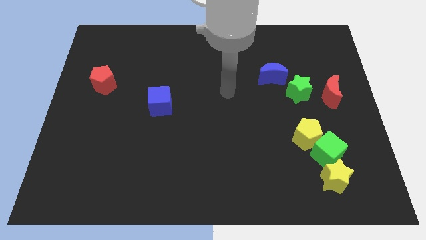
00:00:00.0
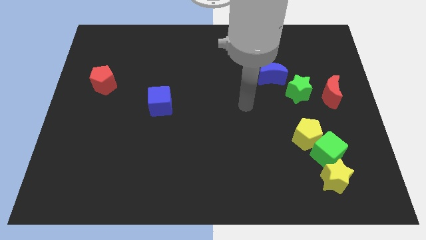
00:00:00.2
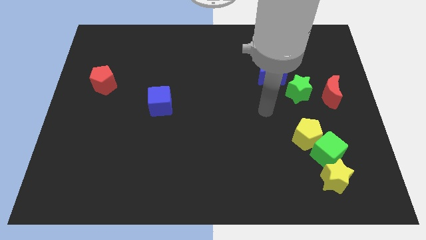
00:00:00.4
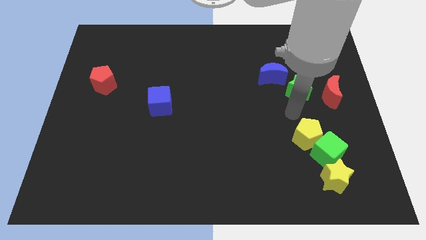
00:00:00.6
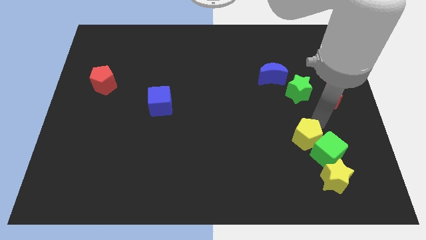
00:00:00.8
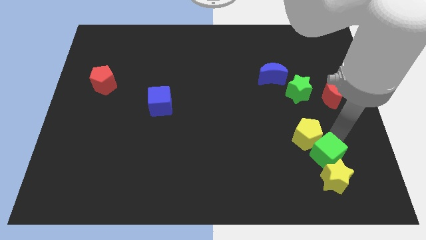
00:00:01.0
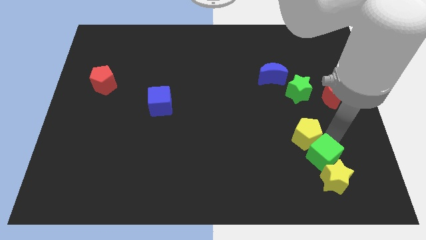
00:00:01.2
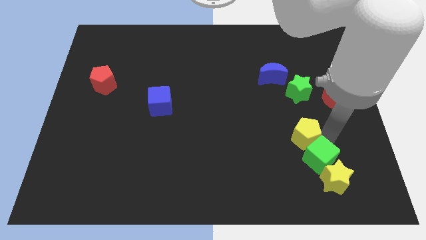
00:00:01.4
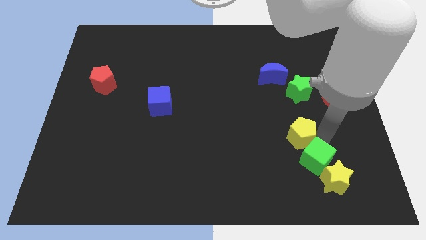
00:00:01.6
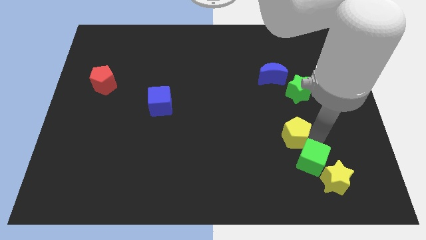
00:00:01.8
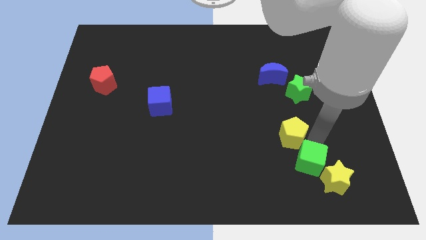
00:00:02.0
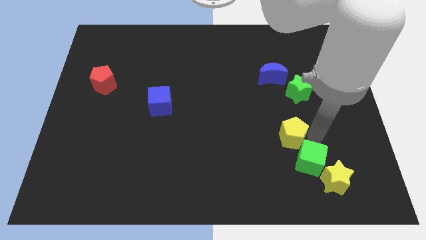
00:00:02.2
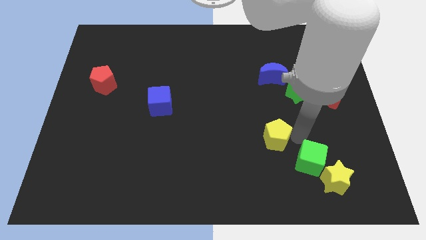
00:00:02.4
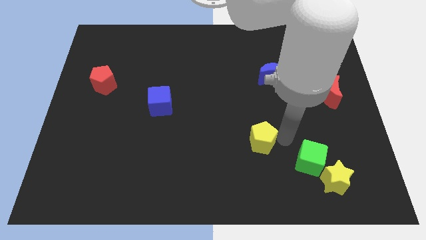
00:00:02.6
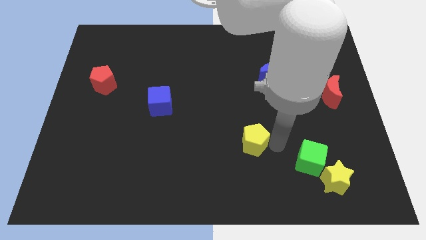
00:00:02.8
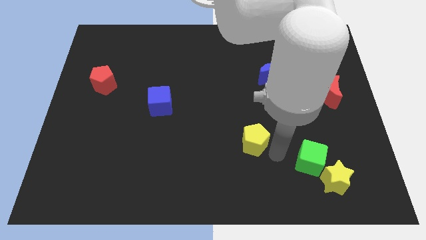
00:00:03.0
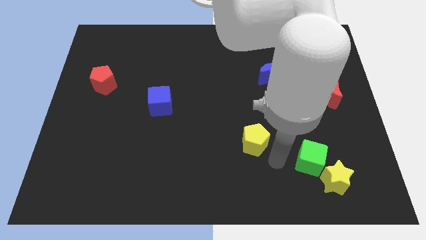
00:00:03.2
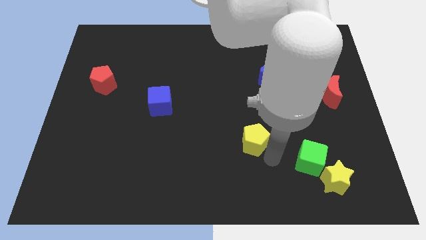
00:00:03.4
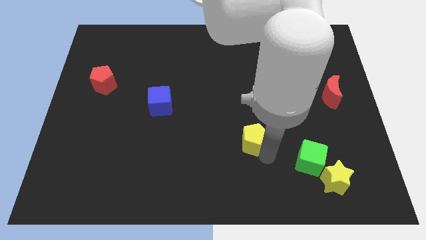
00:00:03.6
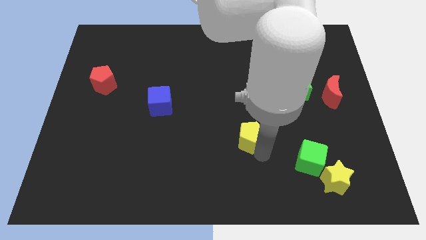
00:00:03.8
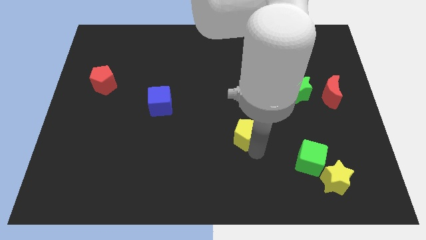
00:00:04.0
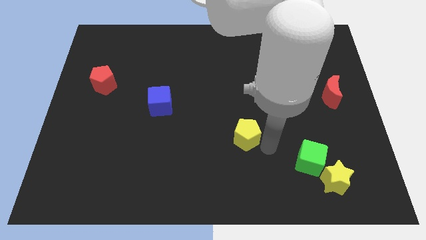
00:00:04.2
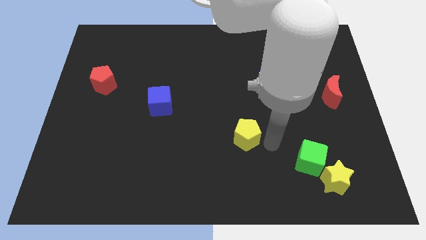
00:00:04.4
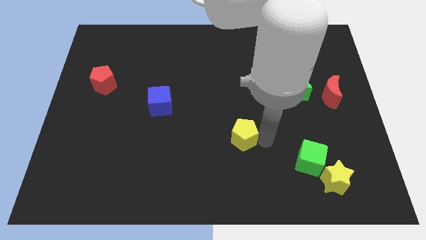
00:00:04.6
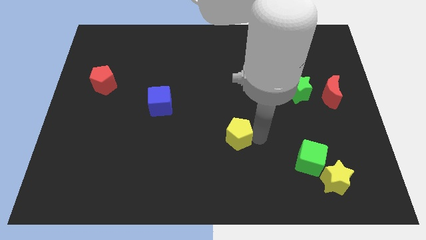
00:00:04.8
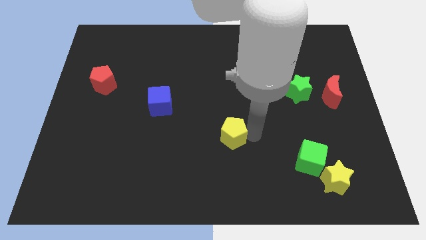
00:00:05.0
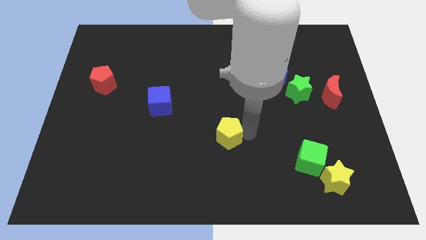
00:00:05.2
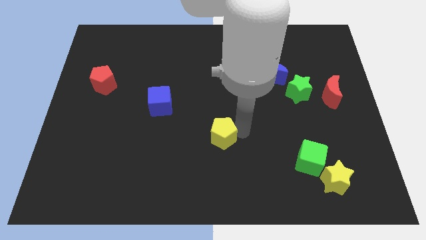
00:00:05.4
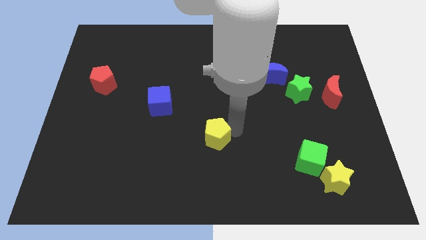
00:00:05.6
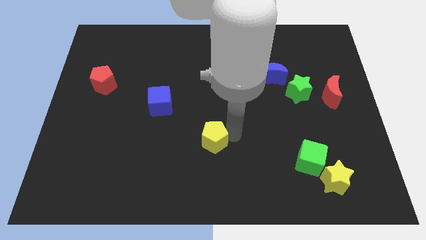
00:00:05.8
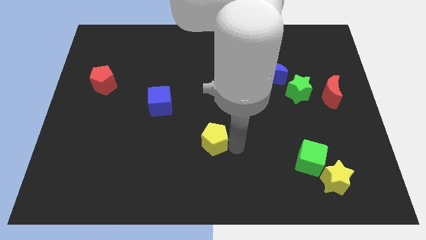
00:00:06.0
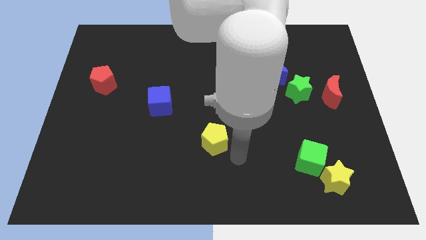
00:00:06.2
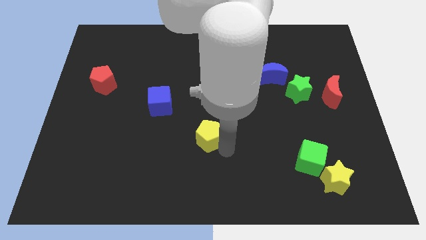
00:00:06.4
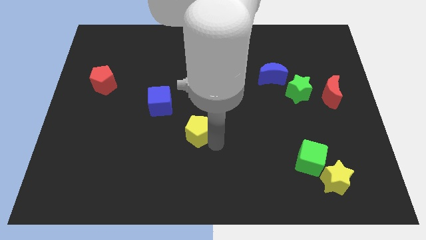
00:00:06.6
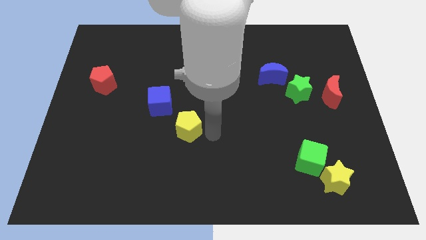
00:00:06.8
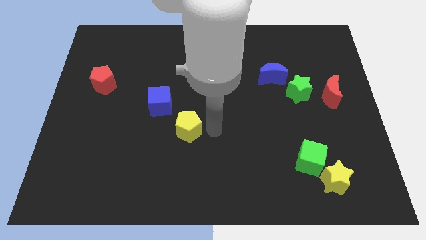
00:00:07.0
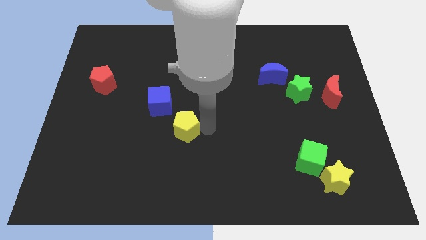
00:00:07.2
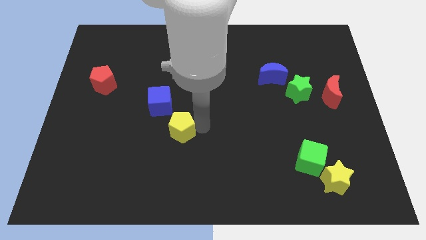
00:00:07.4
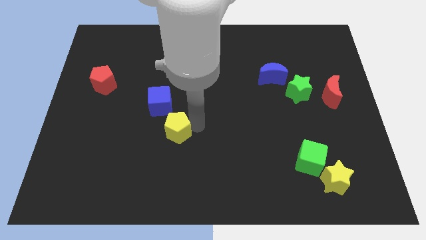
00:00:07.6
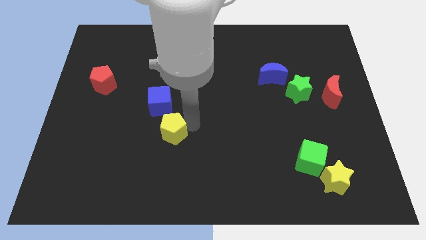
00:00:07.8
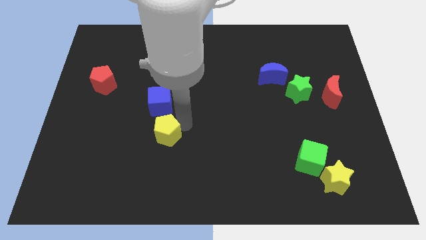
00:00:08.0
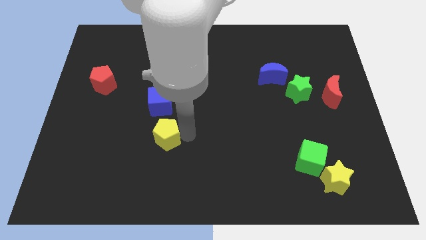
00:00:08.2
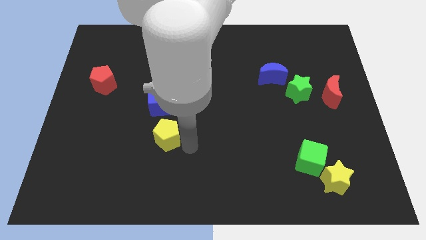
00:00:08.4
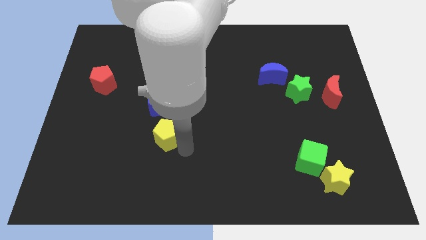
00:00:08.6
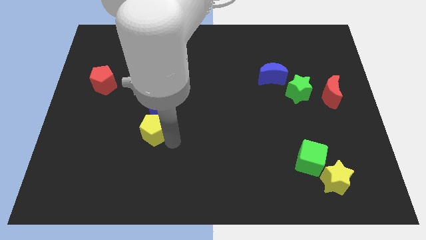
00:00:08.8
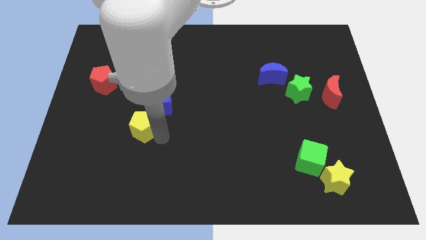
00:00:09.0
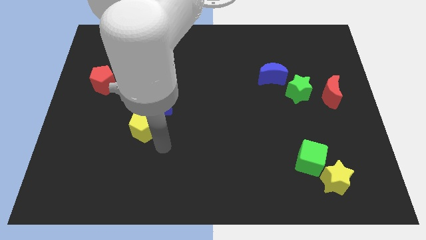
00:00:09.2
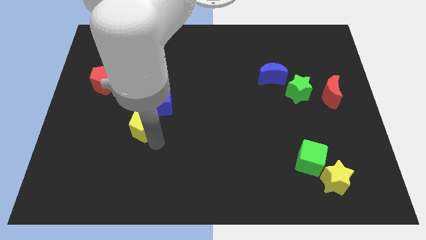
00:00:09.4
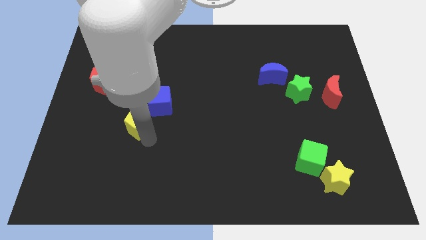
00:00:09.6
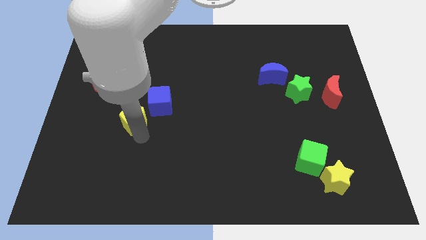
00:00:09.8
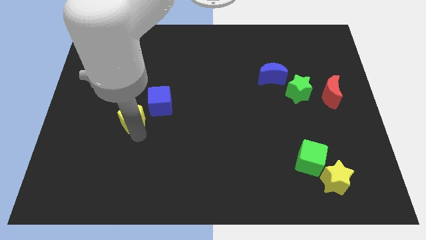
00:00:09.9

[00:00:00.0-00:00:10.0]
put the yellow pentagon just left of the blue cube

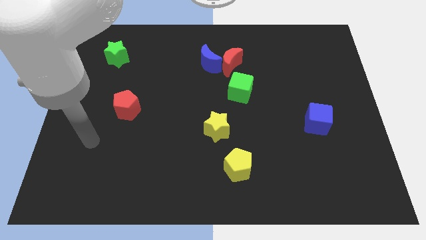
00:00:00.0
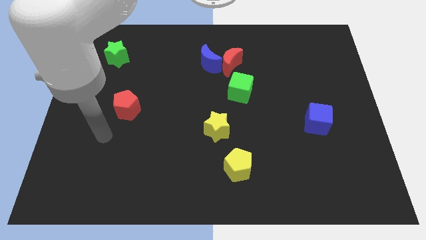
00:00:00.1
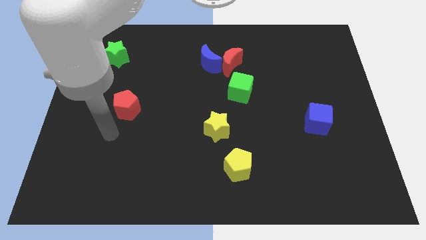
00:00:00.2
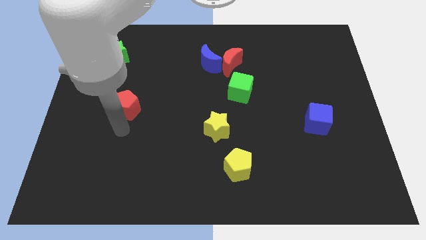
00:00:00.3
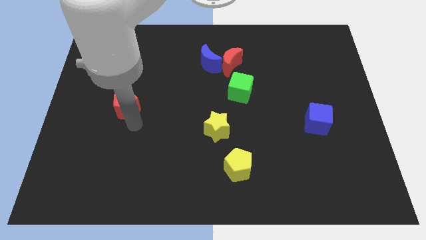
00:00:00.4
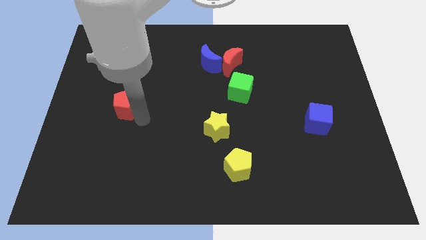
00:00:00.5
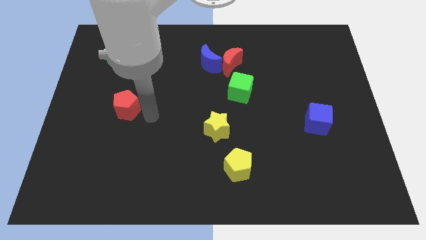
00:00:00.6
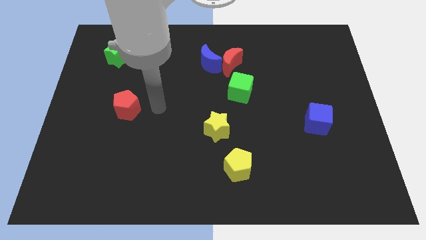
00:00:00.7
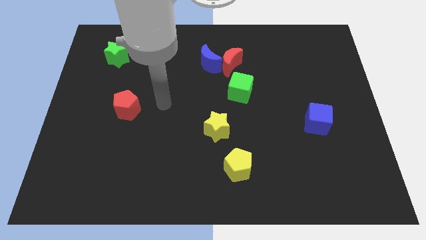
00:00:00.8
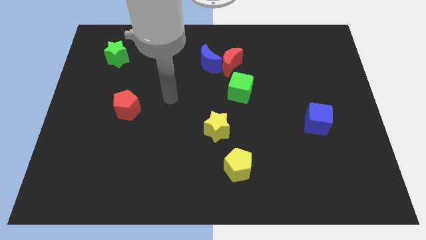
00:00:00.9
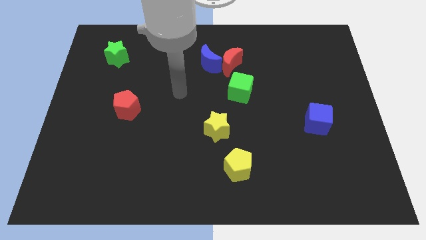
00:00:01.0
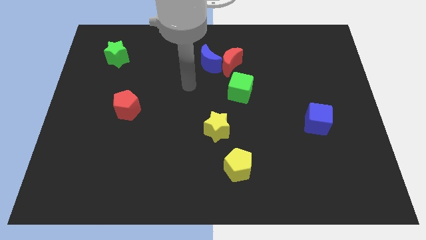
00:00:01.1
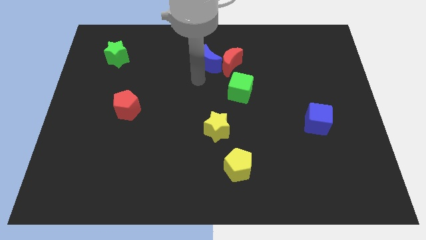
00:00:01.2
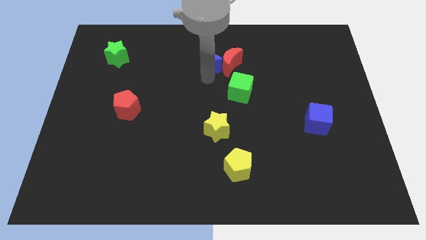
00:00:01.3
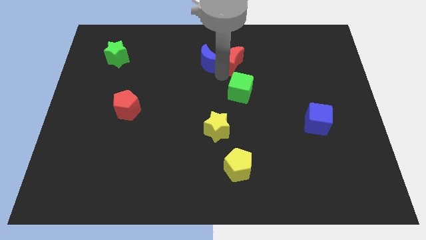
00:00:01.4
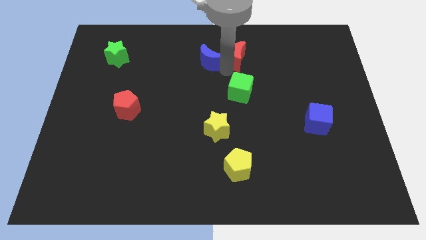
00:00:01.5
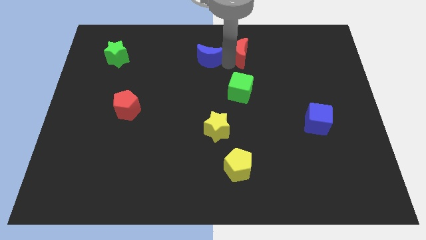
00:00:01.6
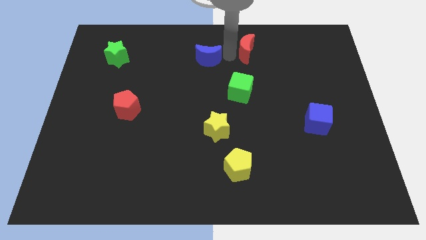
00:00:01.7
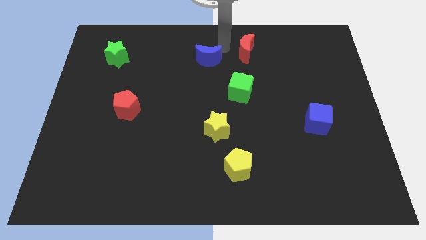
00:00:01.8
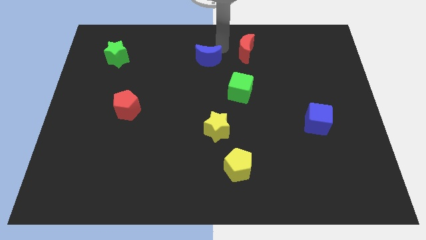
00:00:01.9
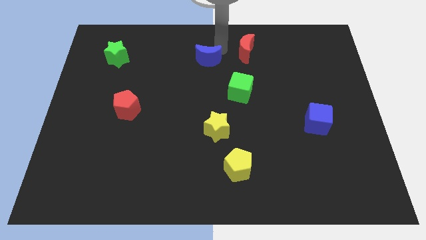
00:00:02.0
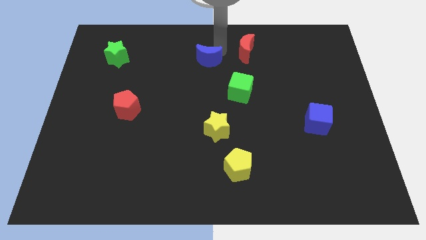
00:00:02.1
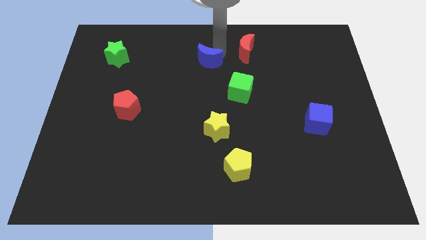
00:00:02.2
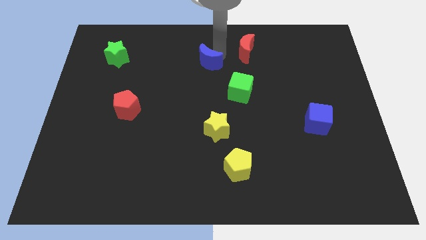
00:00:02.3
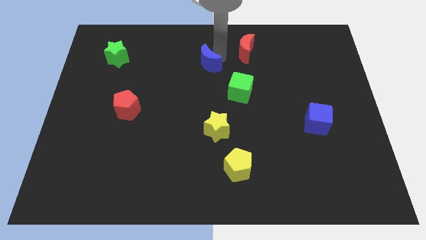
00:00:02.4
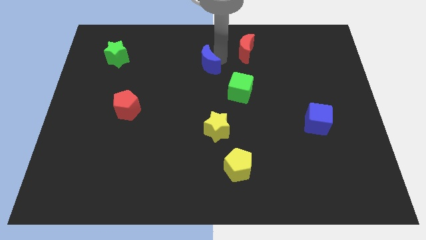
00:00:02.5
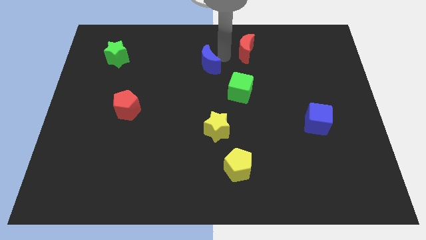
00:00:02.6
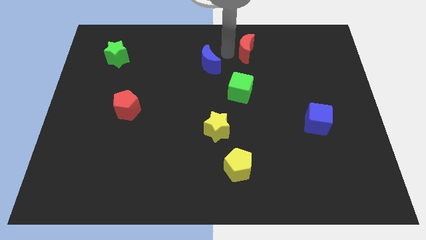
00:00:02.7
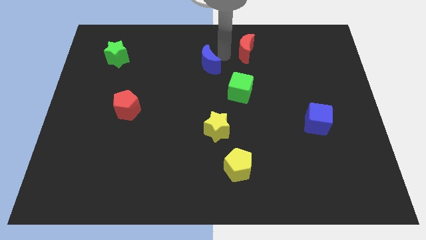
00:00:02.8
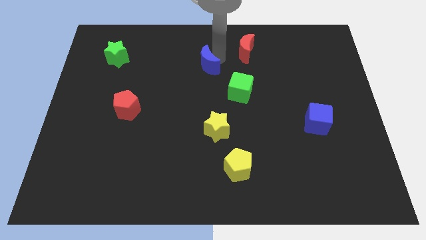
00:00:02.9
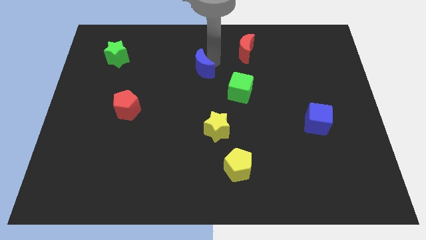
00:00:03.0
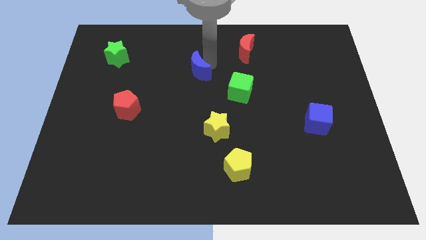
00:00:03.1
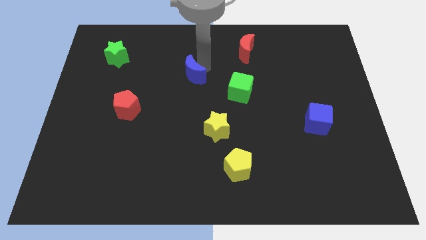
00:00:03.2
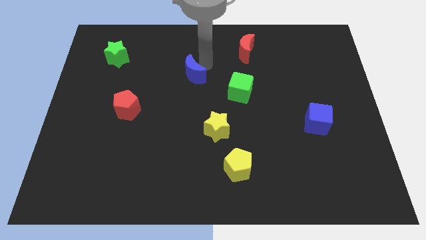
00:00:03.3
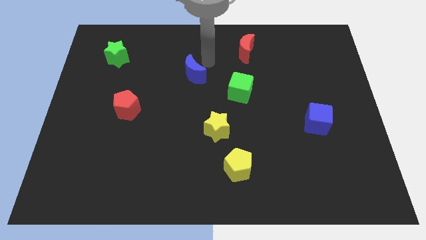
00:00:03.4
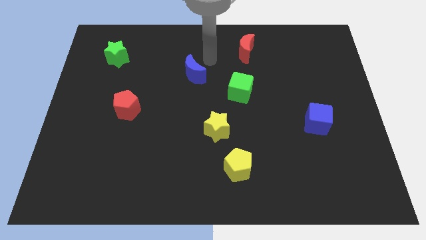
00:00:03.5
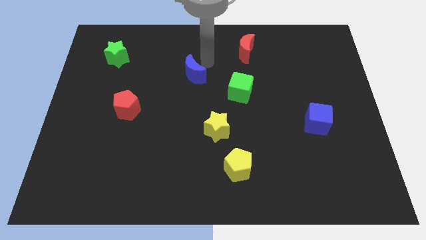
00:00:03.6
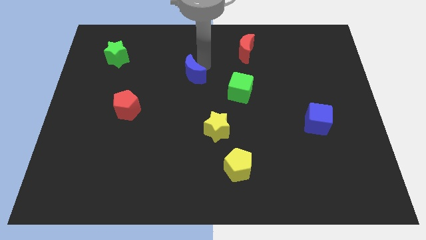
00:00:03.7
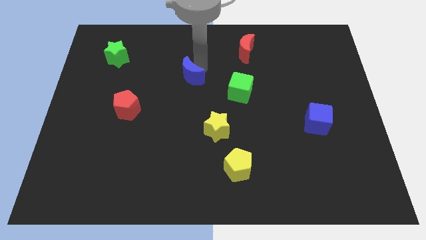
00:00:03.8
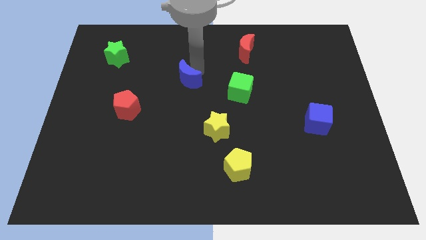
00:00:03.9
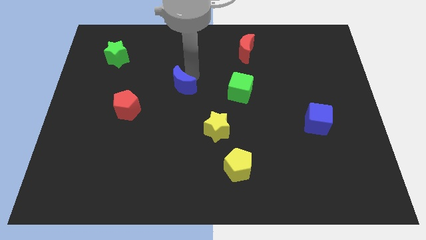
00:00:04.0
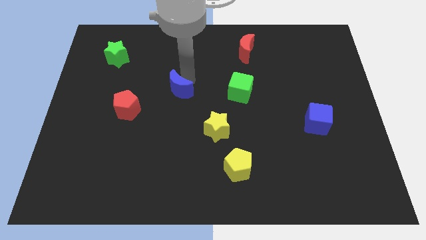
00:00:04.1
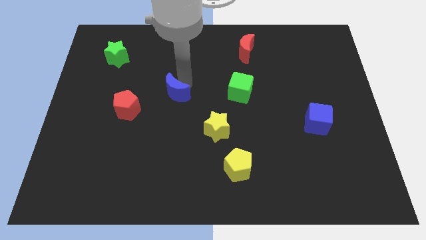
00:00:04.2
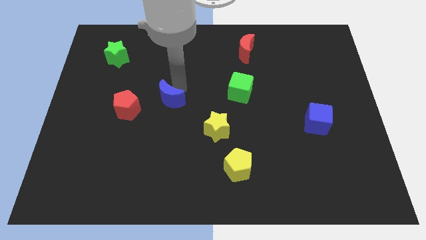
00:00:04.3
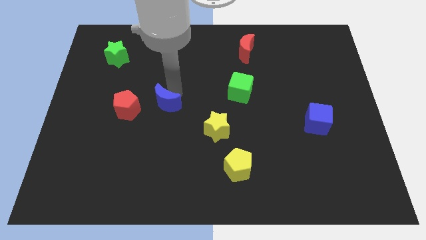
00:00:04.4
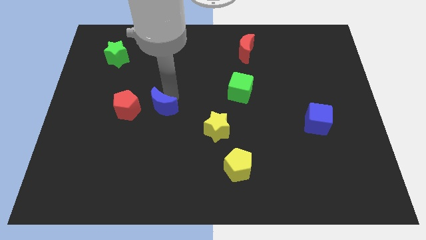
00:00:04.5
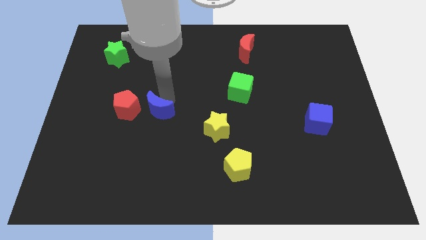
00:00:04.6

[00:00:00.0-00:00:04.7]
move the blue moon diagonally down and to the right of the red pentagon
